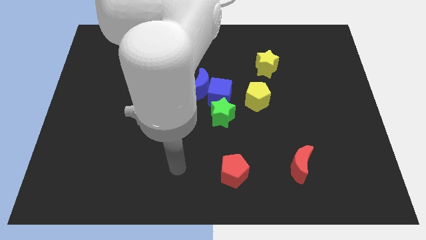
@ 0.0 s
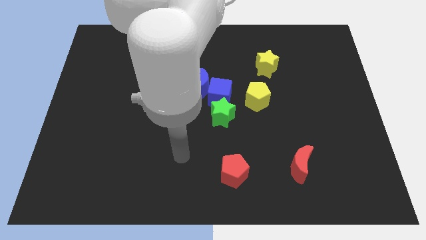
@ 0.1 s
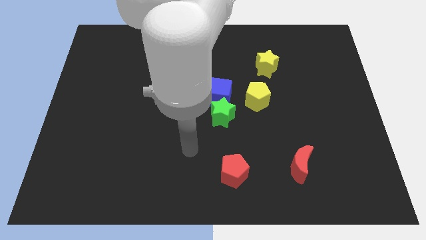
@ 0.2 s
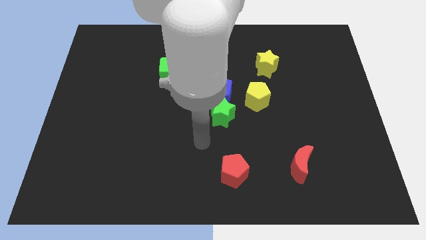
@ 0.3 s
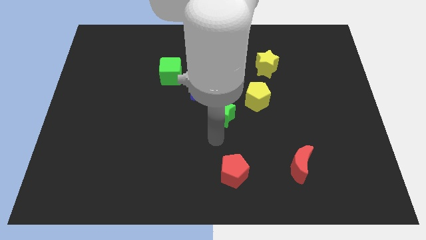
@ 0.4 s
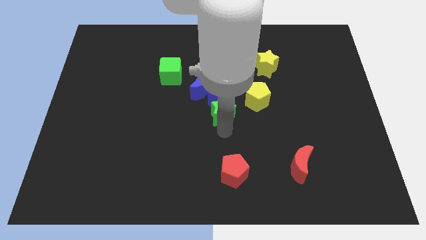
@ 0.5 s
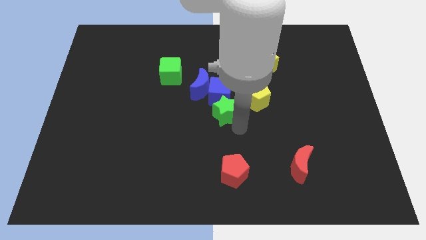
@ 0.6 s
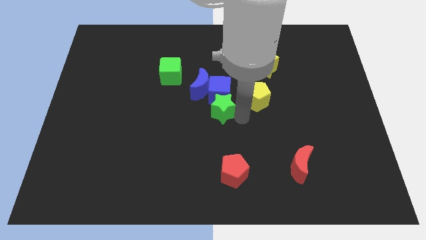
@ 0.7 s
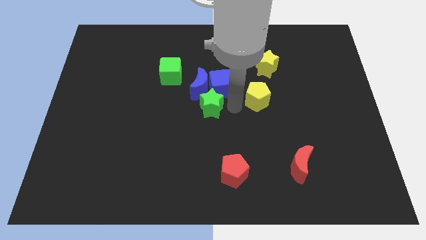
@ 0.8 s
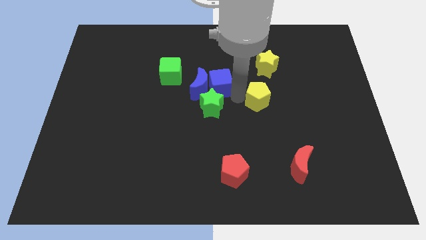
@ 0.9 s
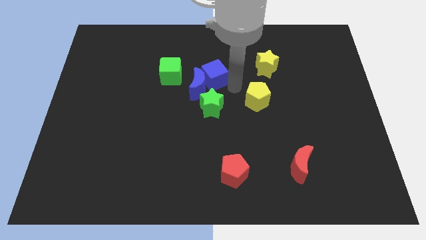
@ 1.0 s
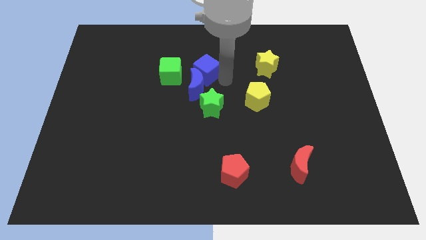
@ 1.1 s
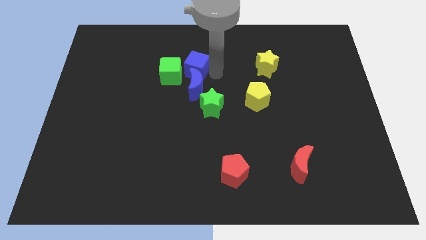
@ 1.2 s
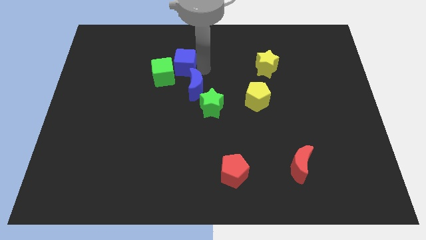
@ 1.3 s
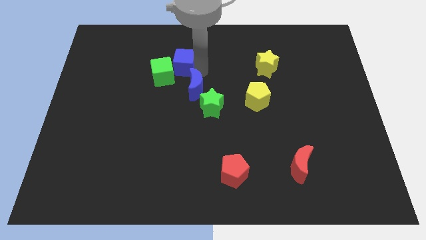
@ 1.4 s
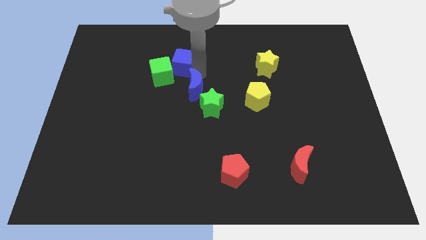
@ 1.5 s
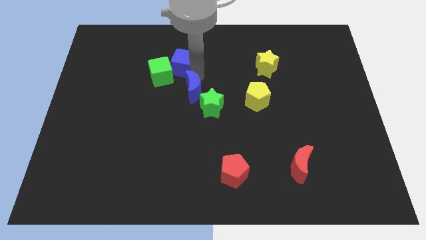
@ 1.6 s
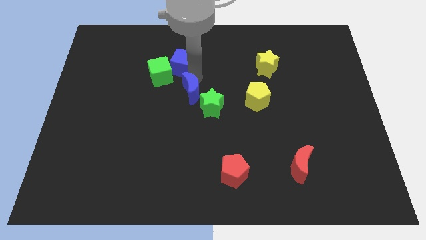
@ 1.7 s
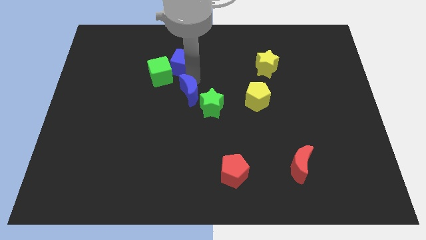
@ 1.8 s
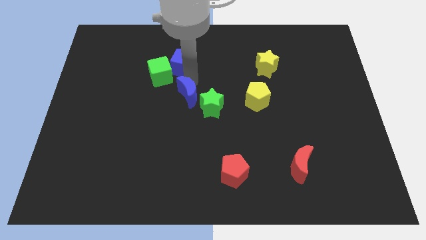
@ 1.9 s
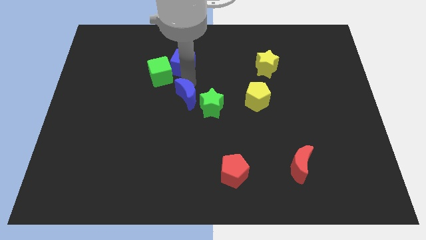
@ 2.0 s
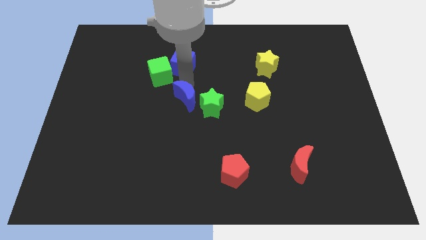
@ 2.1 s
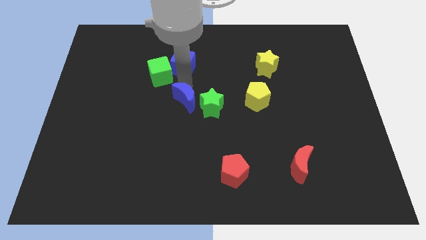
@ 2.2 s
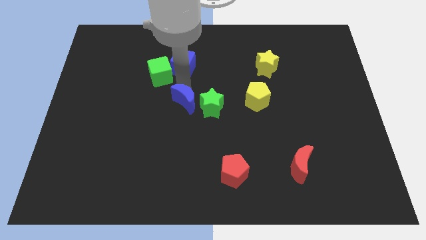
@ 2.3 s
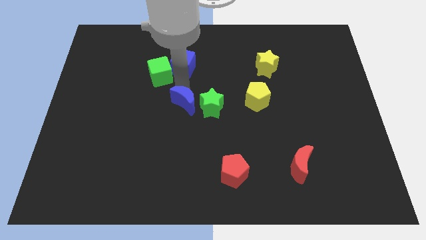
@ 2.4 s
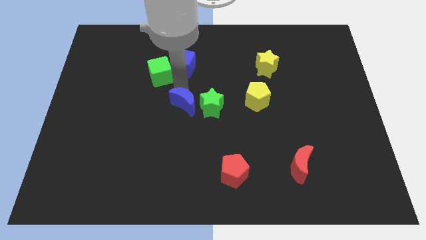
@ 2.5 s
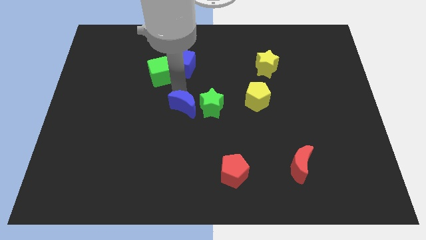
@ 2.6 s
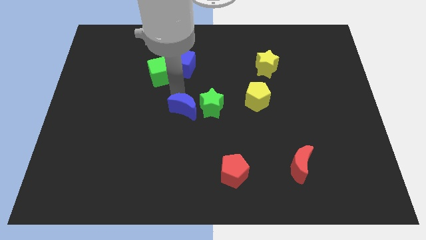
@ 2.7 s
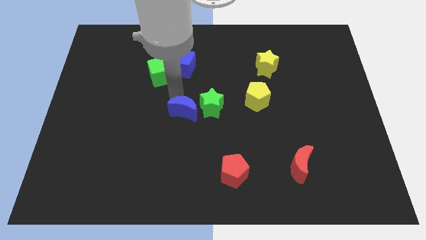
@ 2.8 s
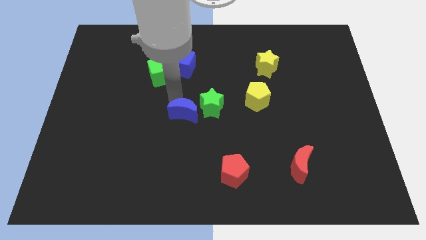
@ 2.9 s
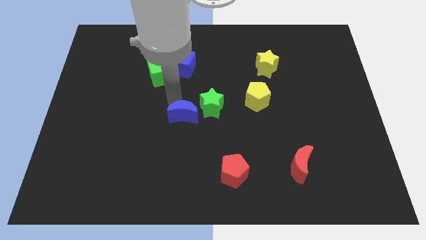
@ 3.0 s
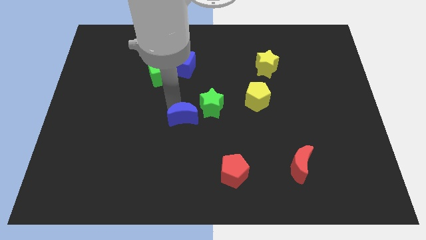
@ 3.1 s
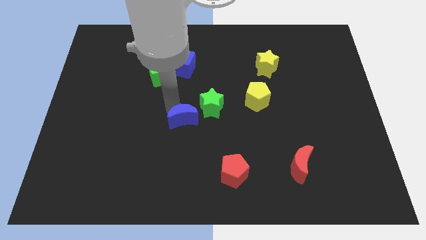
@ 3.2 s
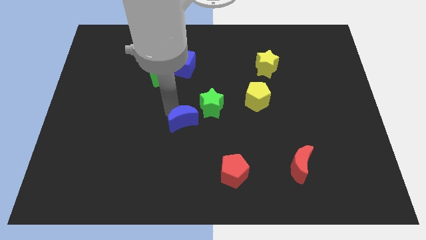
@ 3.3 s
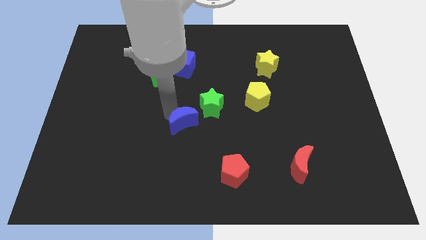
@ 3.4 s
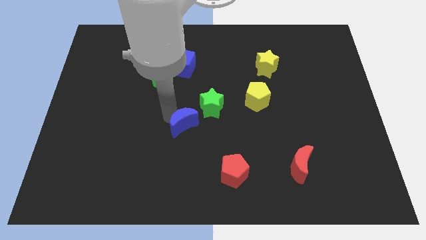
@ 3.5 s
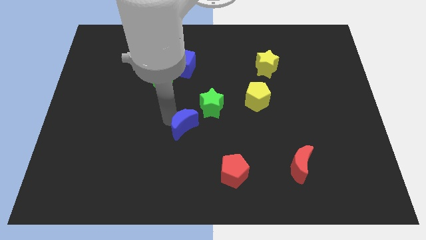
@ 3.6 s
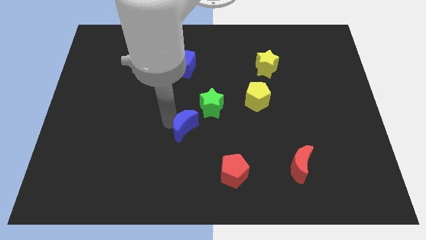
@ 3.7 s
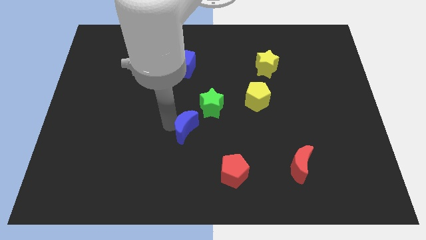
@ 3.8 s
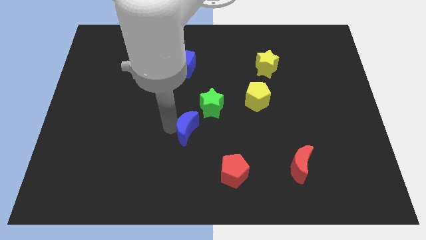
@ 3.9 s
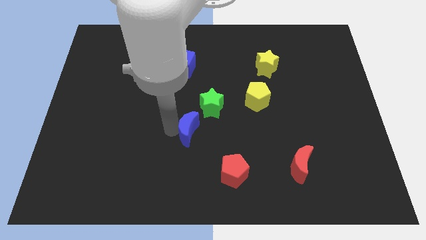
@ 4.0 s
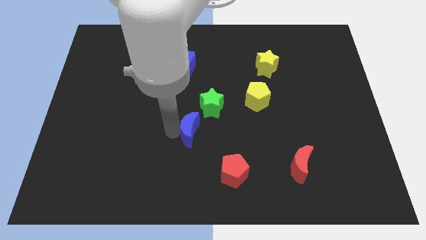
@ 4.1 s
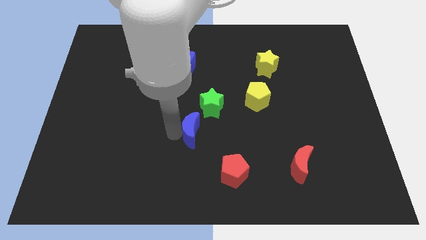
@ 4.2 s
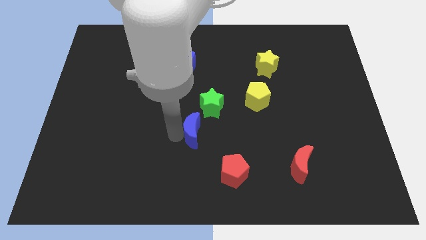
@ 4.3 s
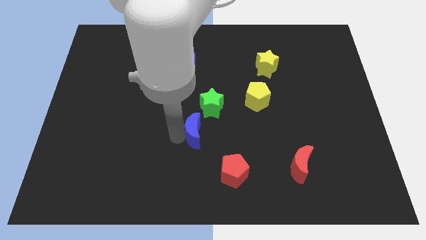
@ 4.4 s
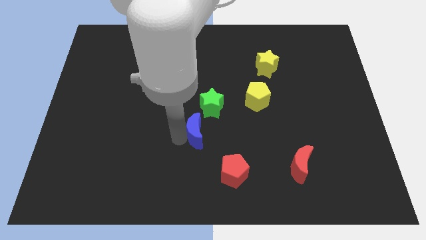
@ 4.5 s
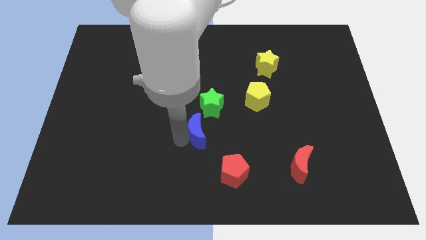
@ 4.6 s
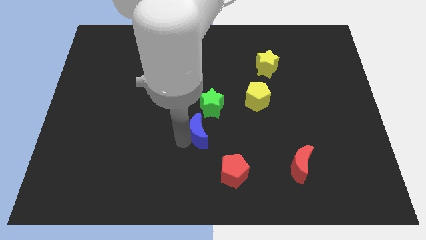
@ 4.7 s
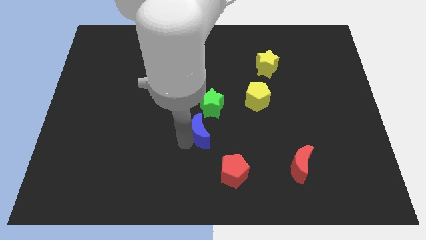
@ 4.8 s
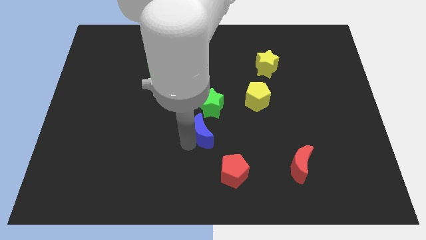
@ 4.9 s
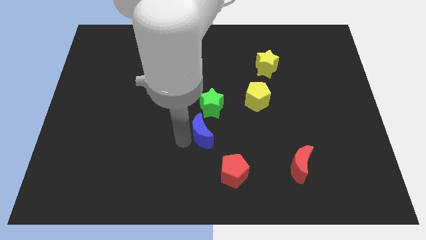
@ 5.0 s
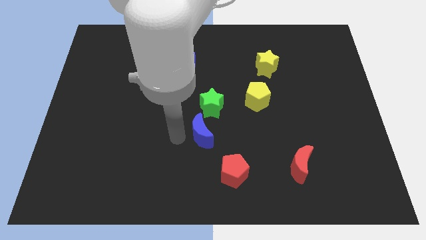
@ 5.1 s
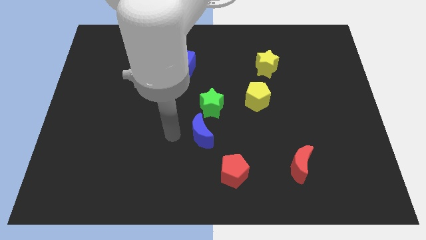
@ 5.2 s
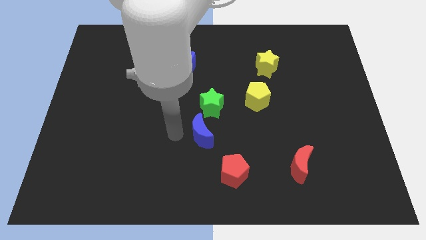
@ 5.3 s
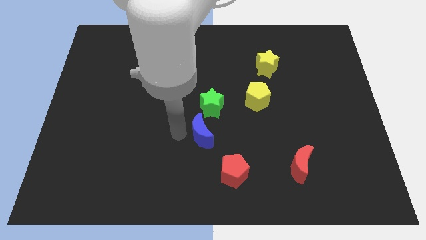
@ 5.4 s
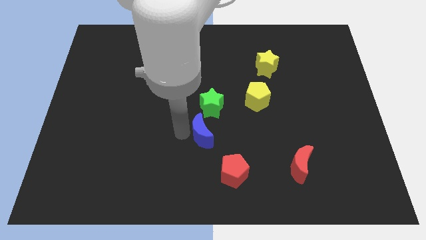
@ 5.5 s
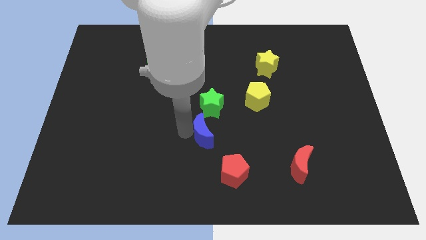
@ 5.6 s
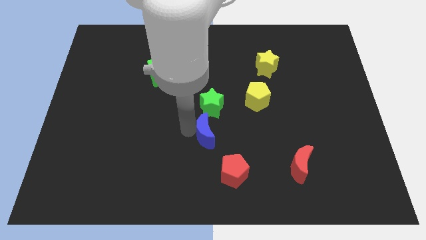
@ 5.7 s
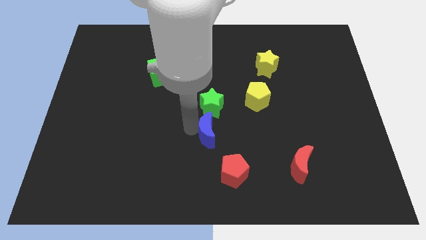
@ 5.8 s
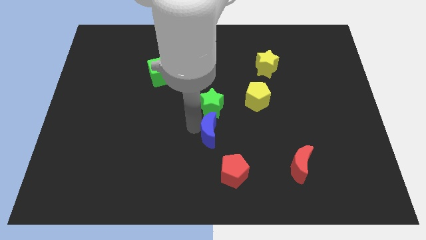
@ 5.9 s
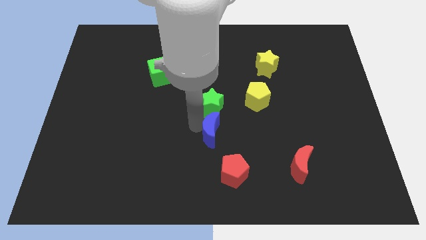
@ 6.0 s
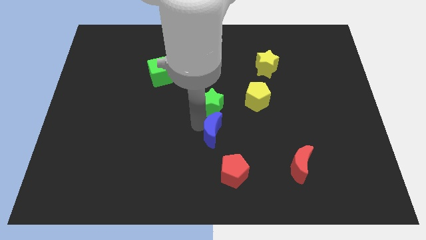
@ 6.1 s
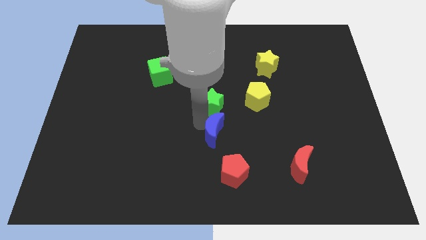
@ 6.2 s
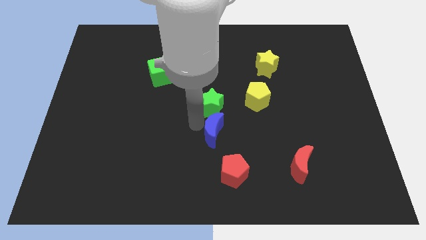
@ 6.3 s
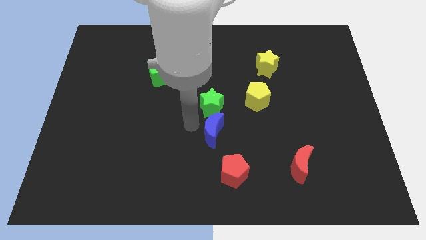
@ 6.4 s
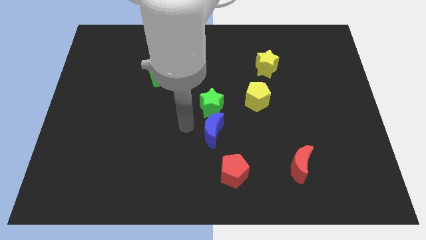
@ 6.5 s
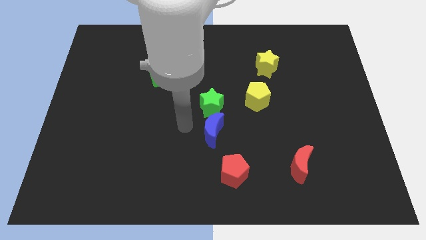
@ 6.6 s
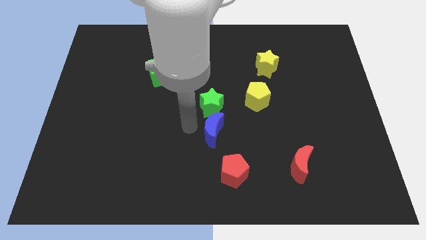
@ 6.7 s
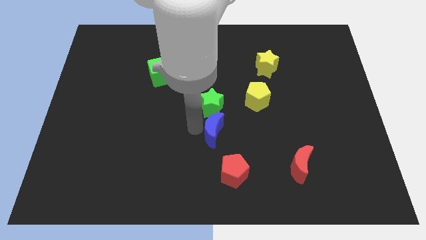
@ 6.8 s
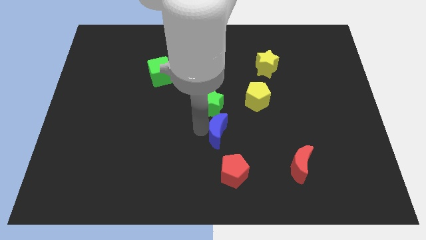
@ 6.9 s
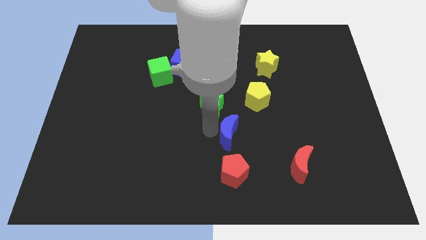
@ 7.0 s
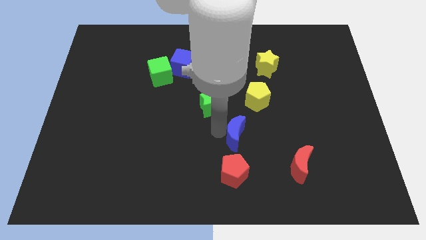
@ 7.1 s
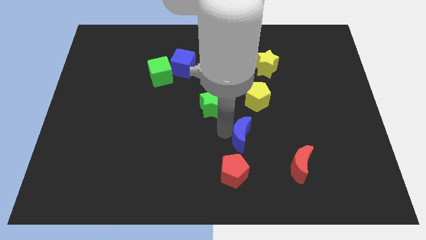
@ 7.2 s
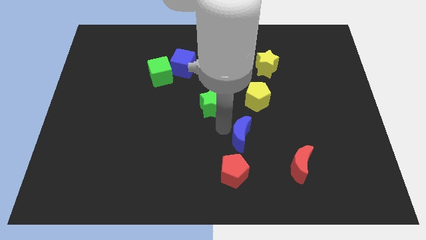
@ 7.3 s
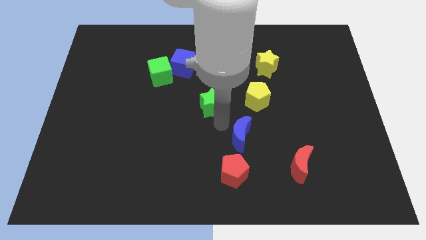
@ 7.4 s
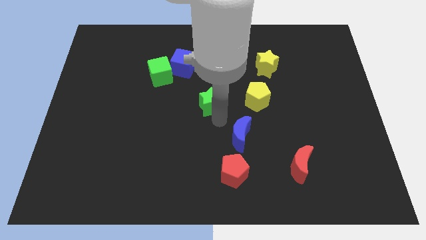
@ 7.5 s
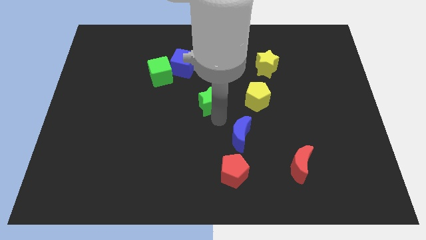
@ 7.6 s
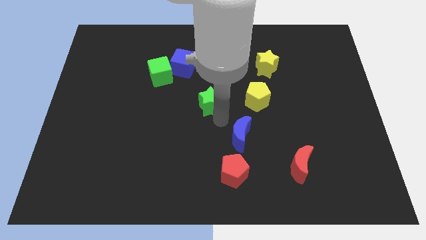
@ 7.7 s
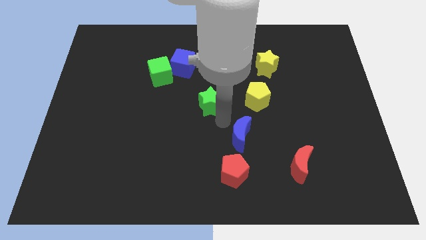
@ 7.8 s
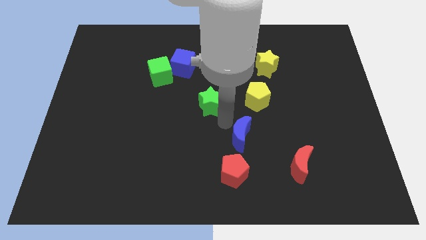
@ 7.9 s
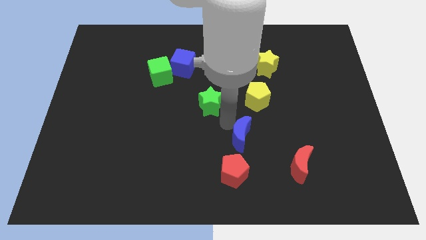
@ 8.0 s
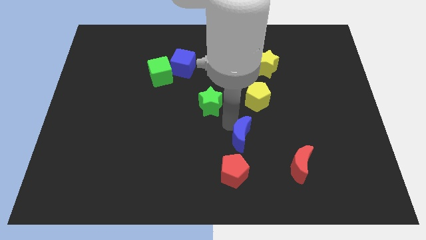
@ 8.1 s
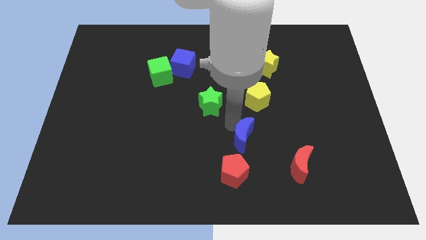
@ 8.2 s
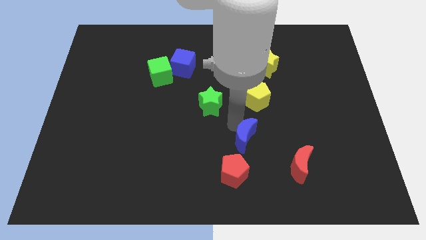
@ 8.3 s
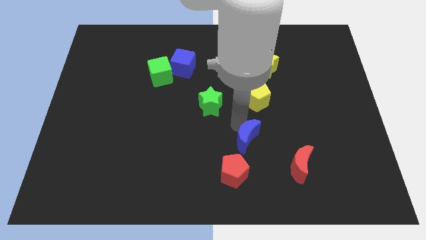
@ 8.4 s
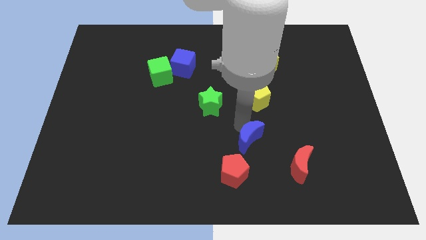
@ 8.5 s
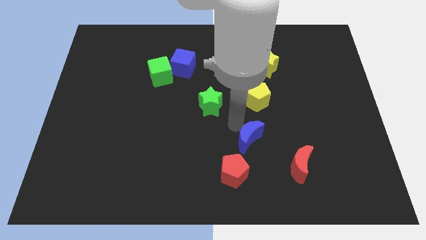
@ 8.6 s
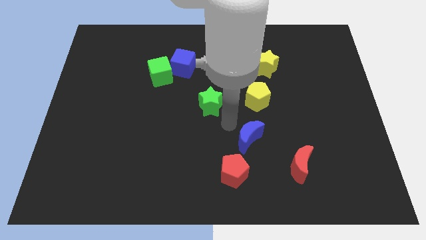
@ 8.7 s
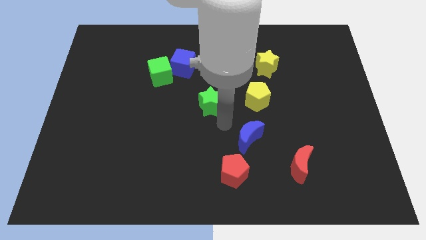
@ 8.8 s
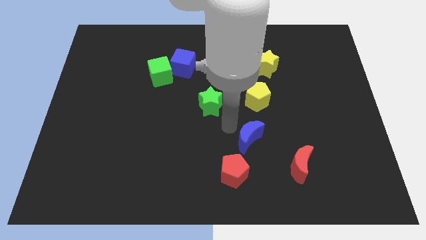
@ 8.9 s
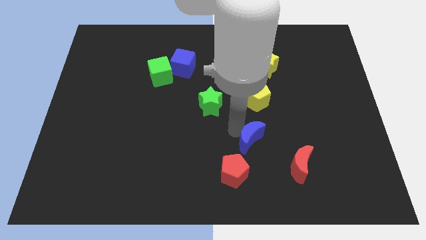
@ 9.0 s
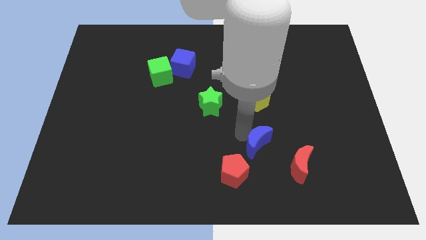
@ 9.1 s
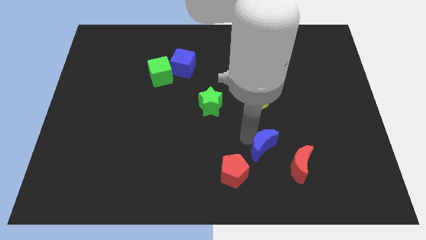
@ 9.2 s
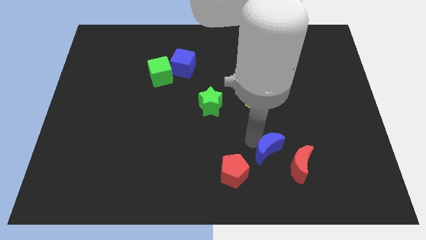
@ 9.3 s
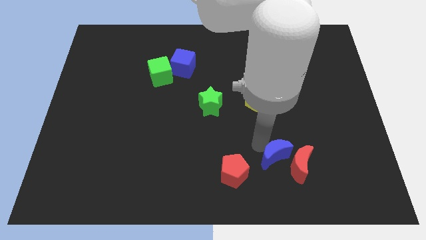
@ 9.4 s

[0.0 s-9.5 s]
put the blue moon close to the red moon
